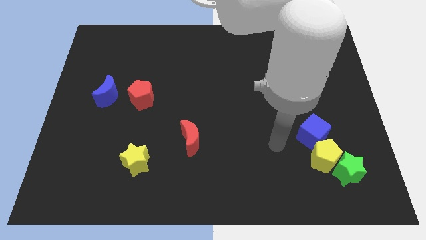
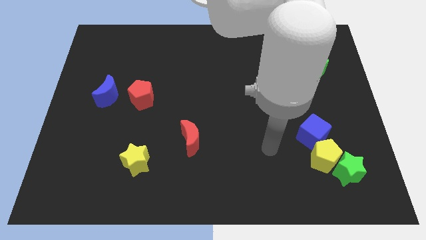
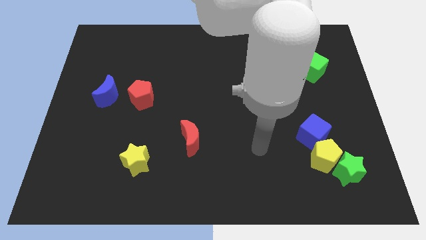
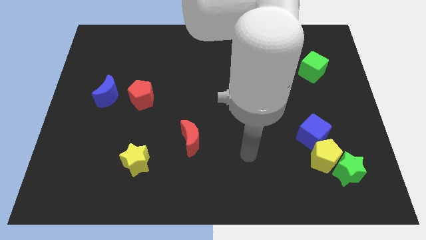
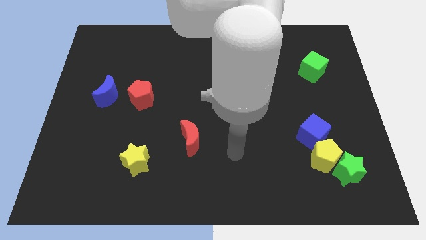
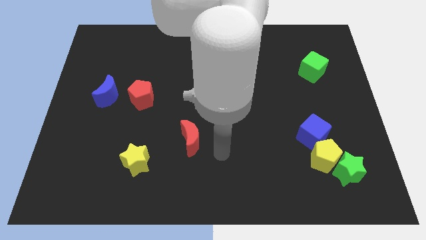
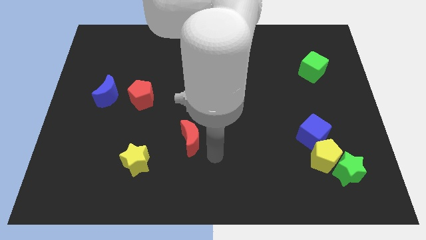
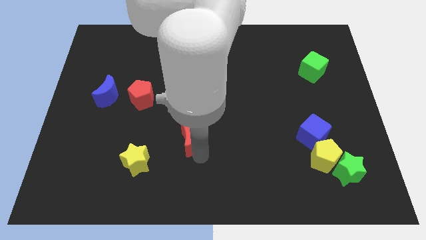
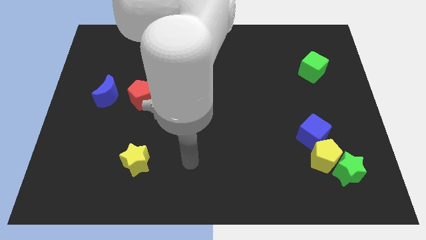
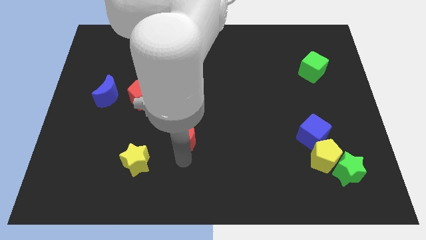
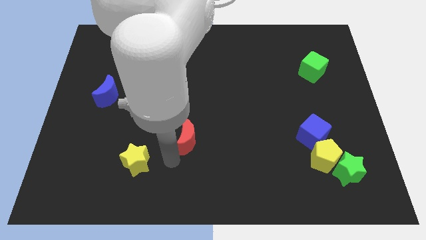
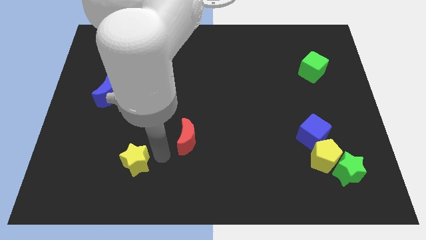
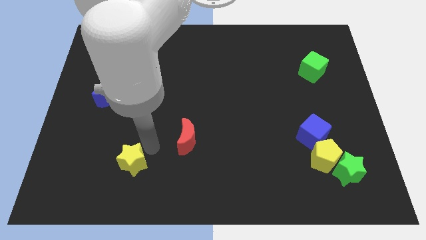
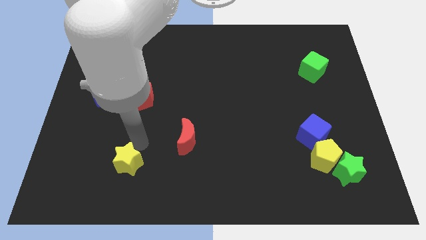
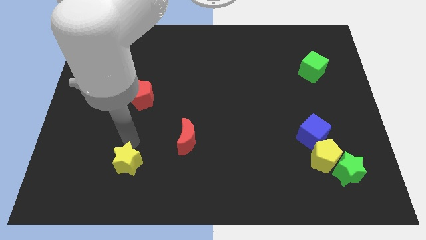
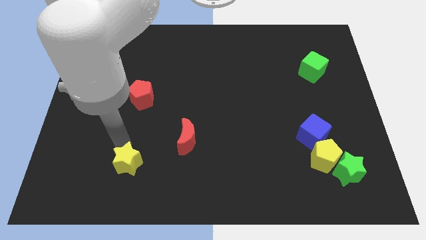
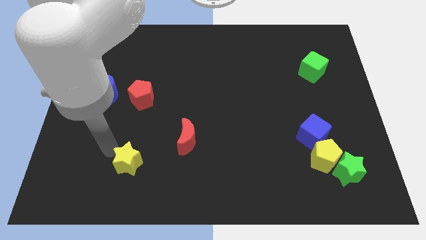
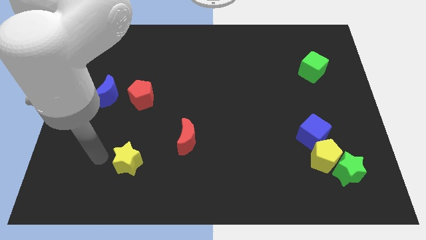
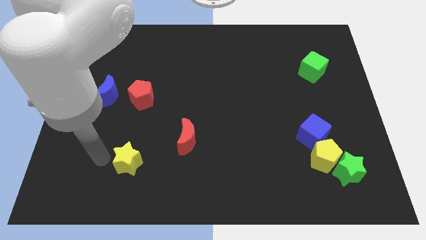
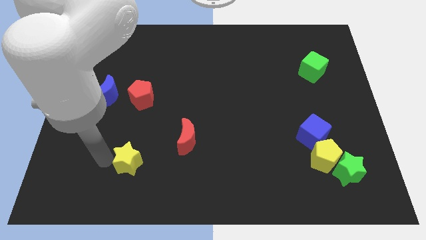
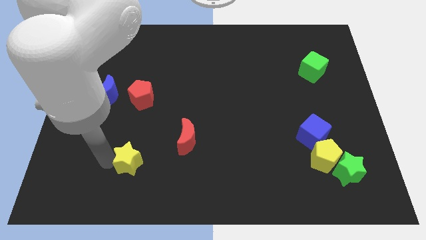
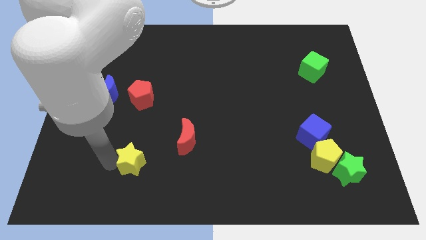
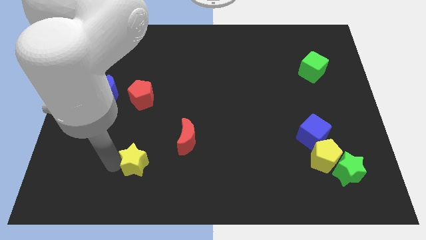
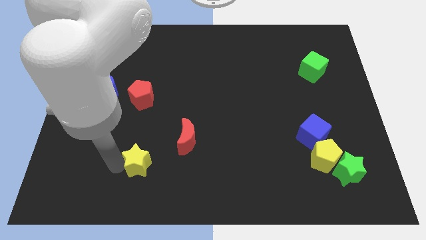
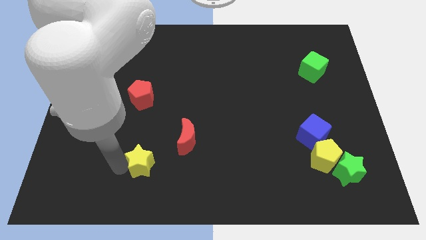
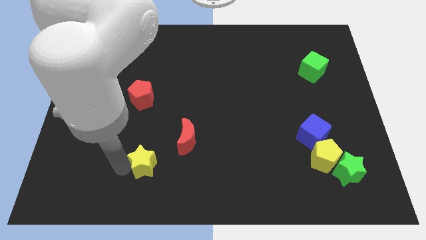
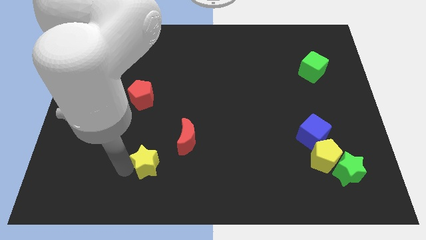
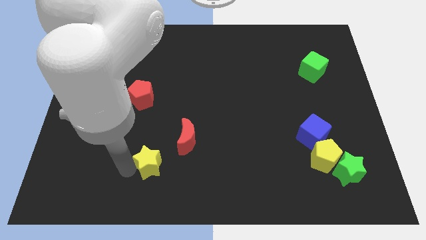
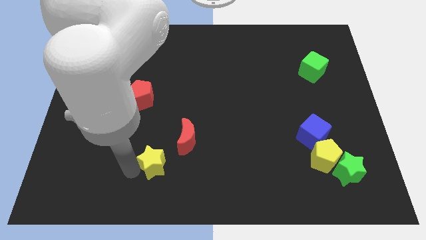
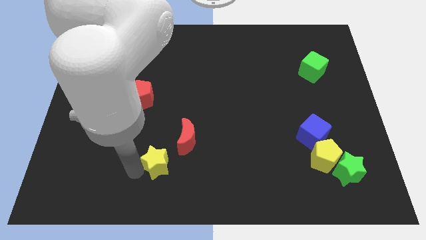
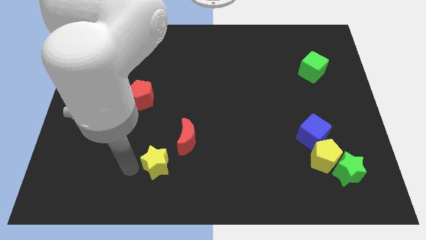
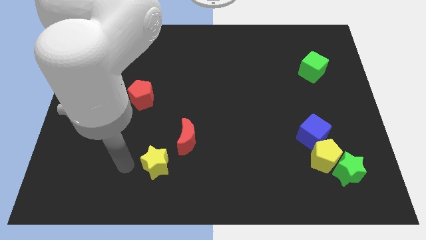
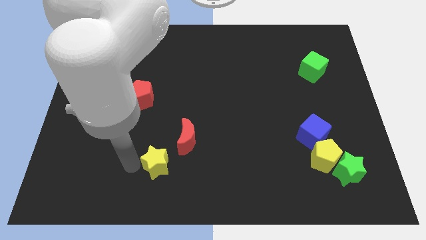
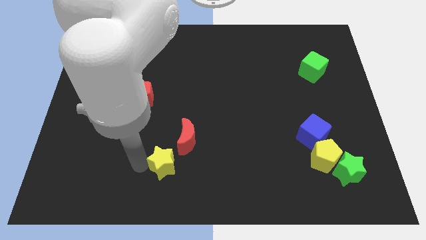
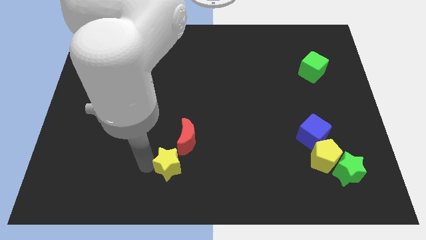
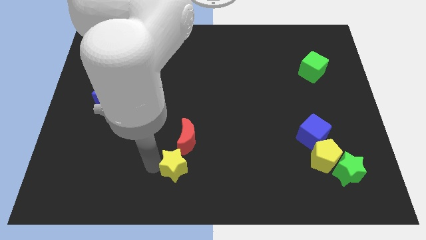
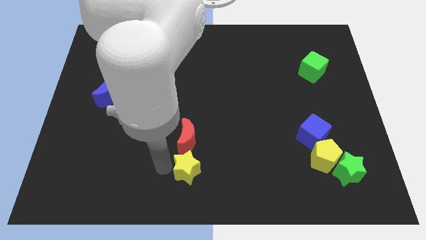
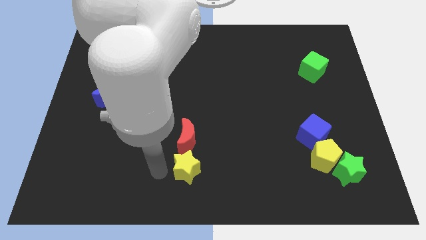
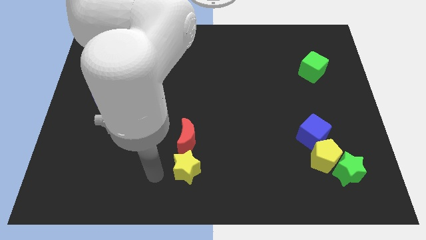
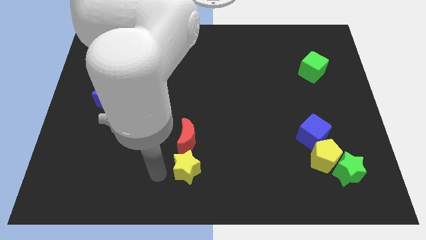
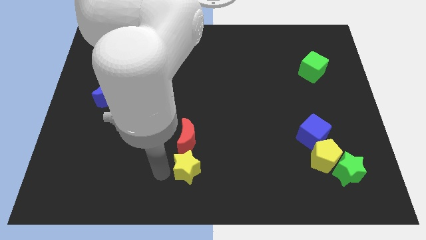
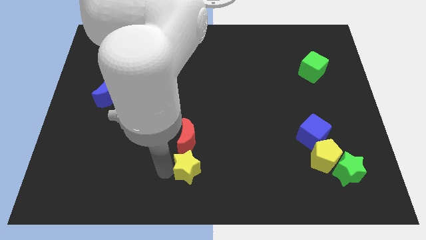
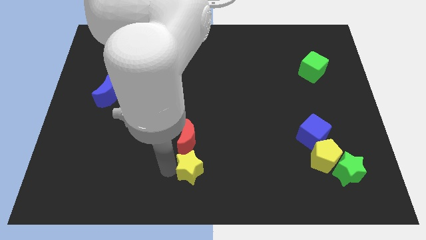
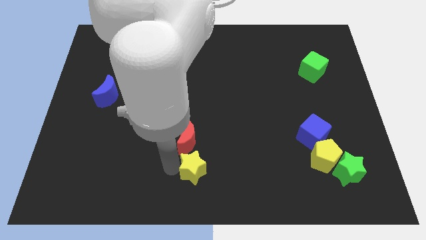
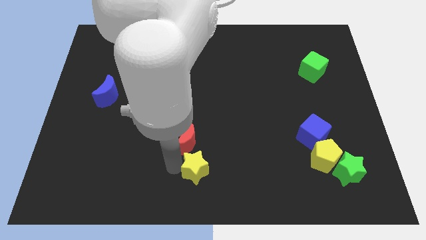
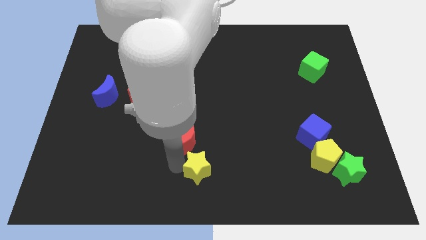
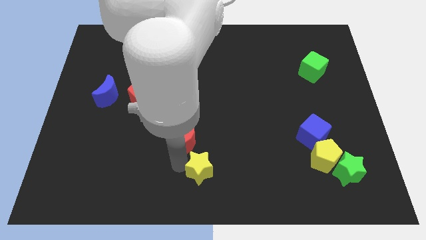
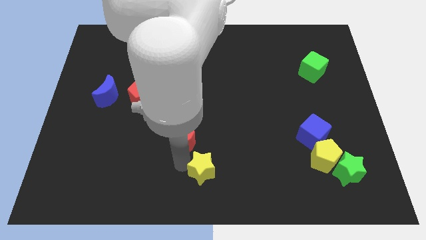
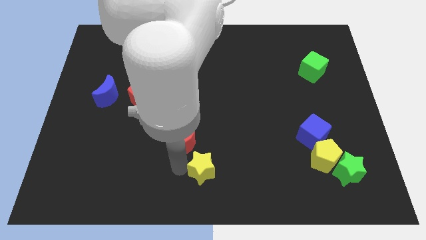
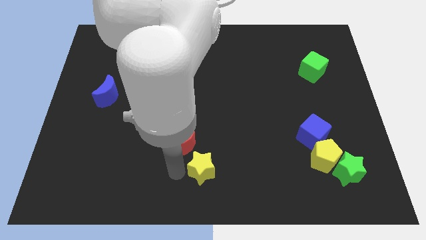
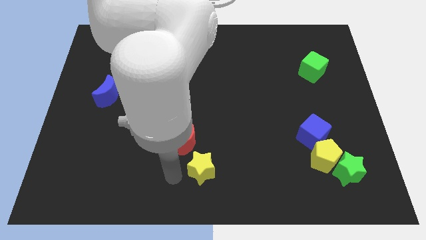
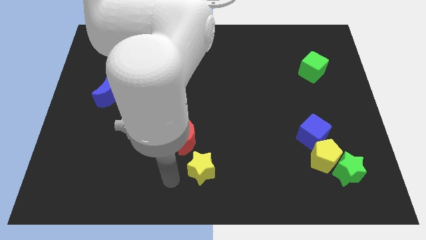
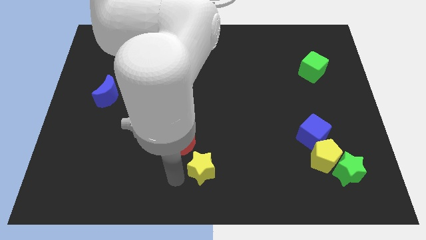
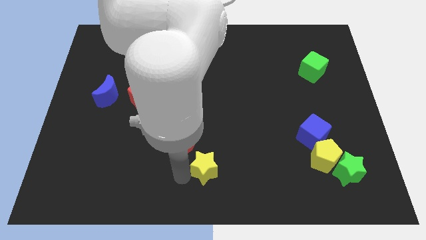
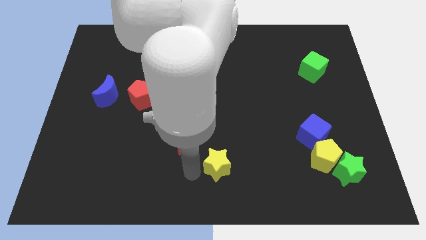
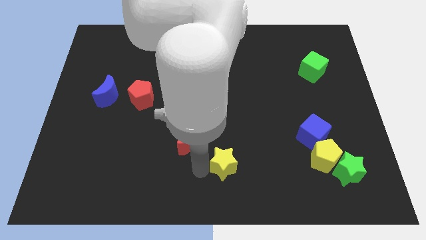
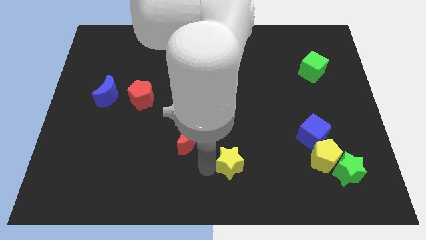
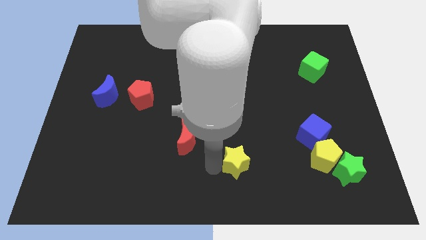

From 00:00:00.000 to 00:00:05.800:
slide the yellow star right

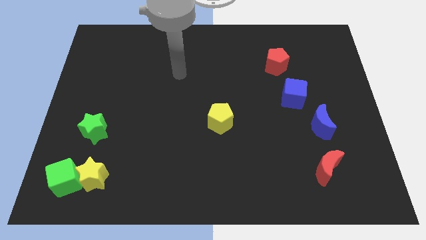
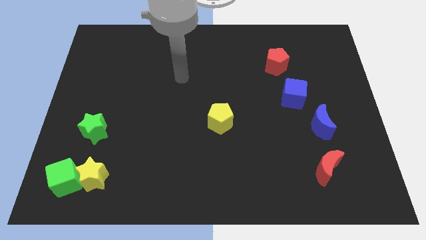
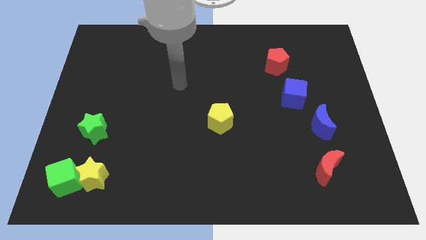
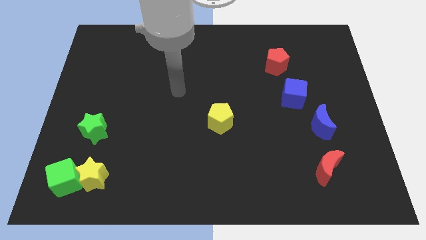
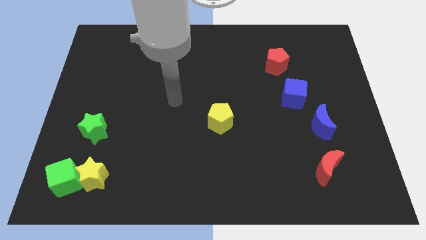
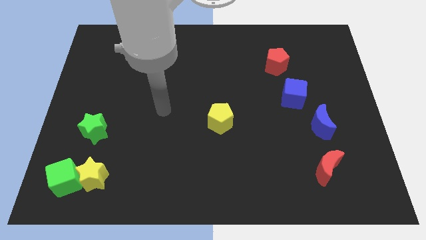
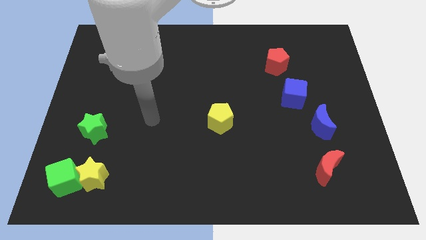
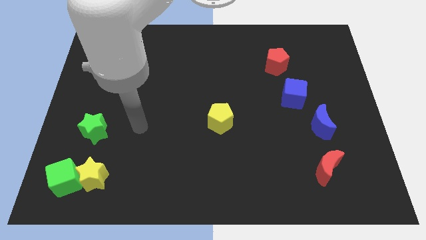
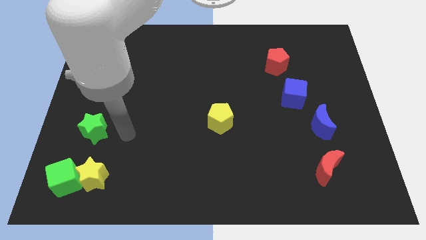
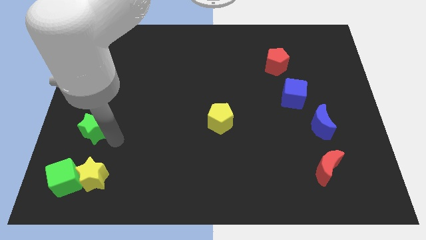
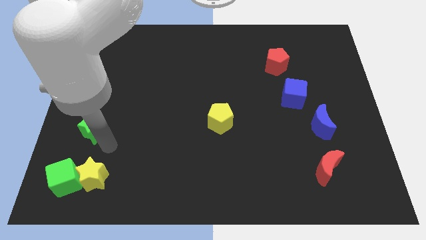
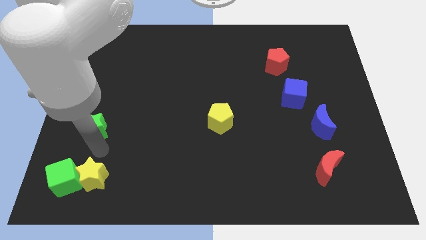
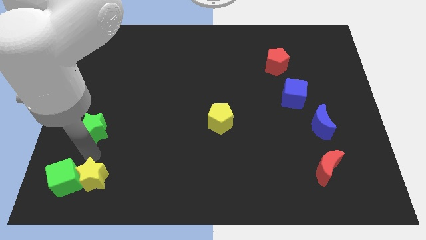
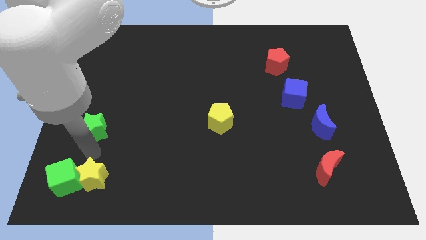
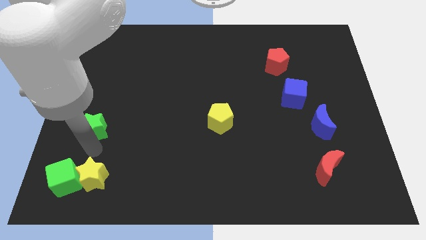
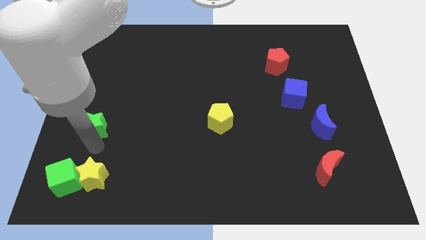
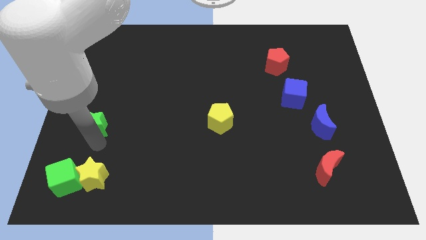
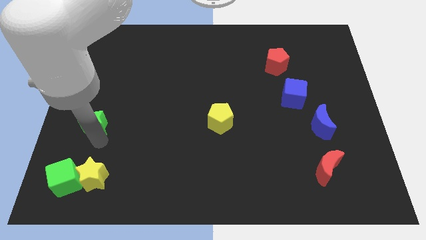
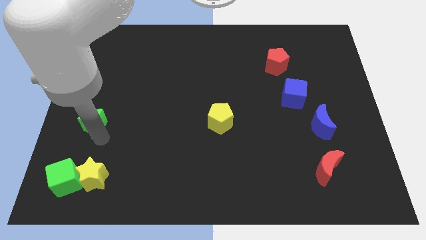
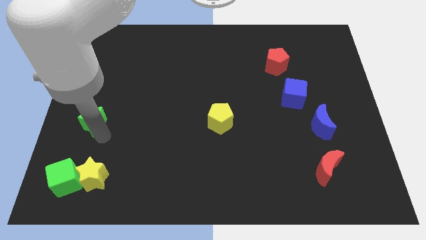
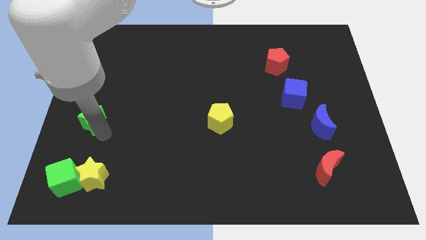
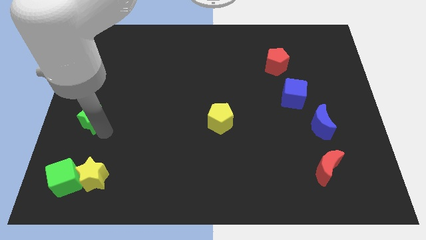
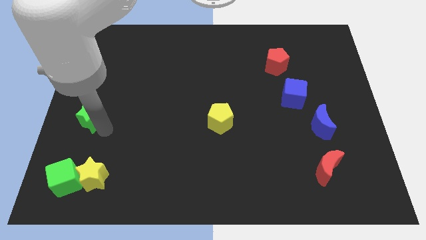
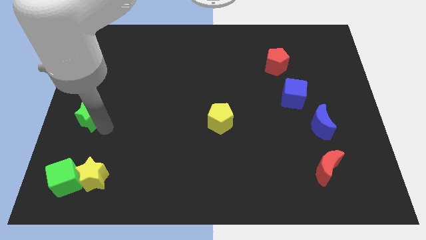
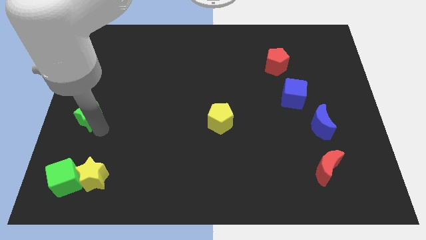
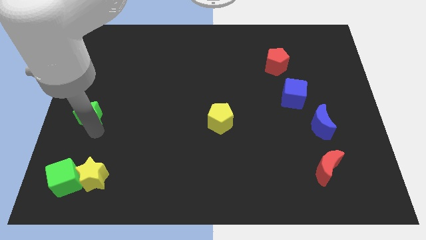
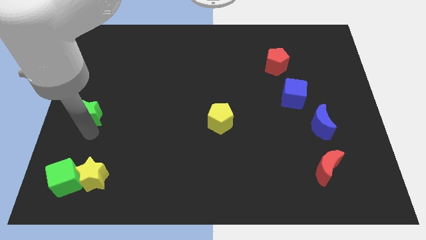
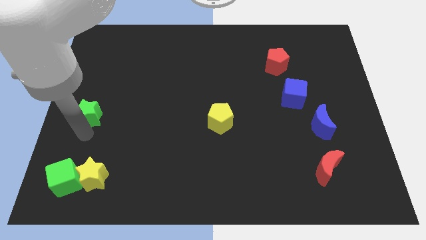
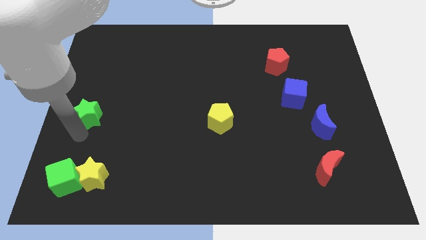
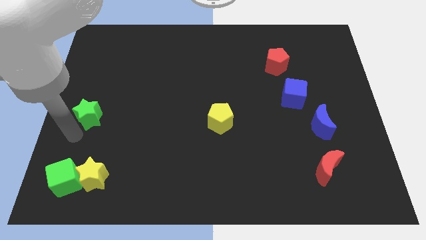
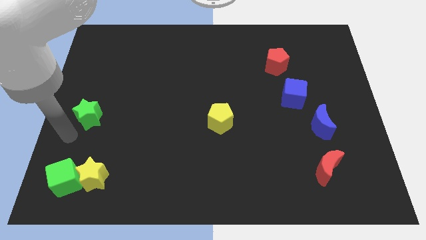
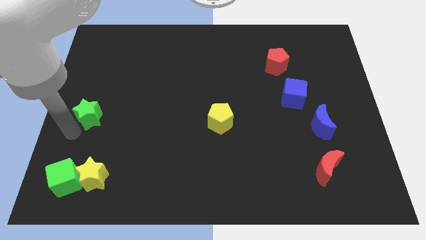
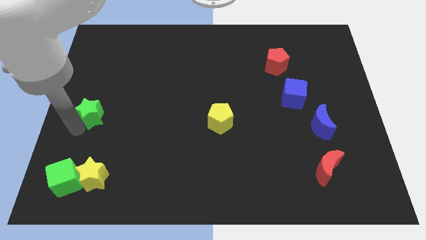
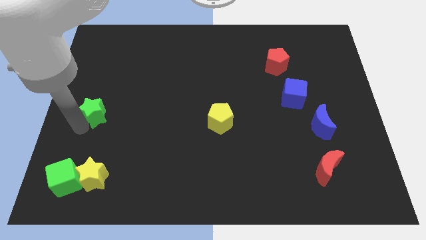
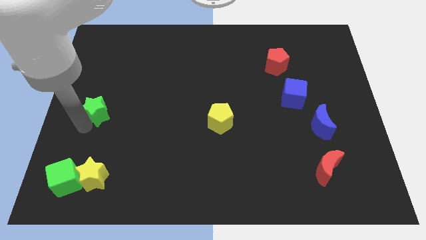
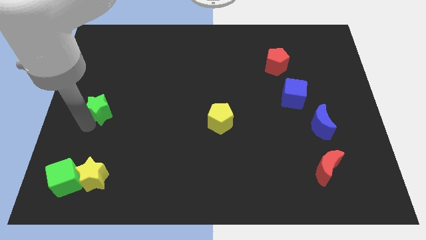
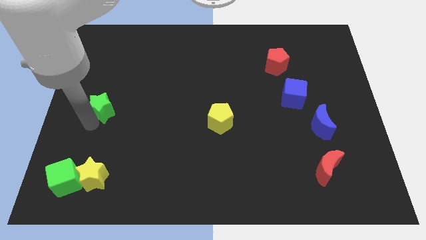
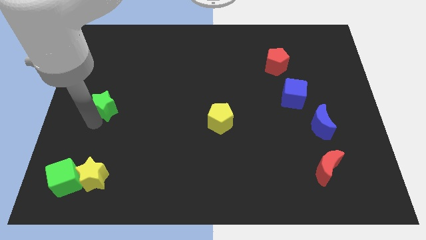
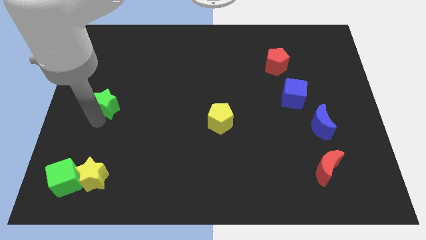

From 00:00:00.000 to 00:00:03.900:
slide the green star upwards slightly
